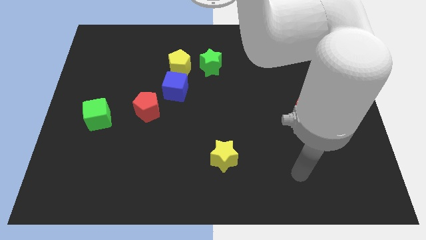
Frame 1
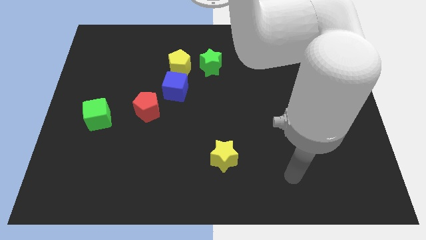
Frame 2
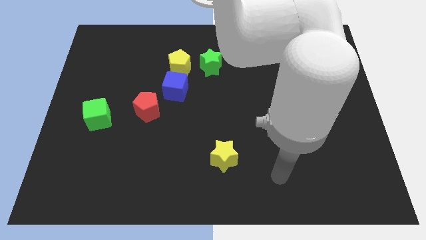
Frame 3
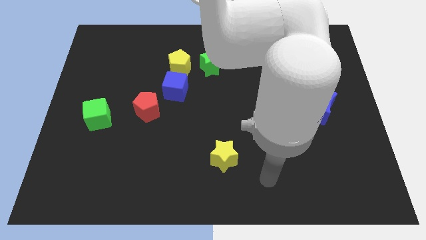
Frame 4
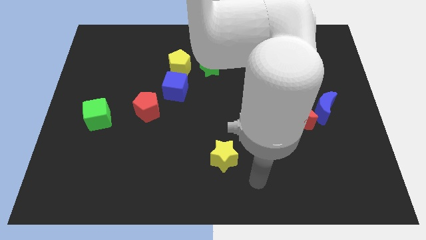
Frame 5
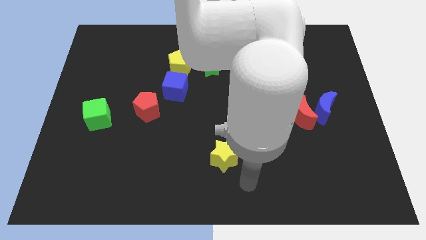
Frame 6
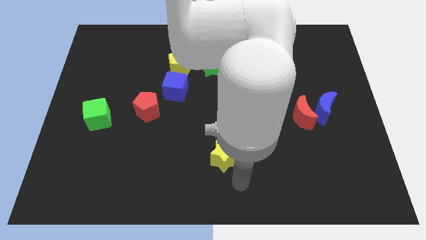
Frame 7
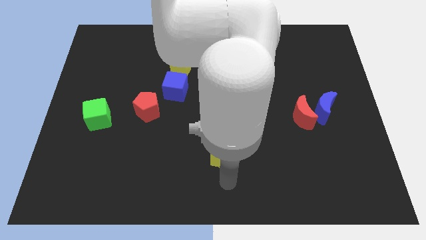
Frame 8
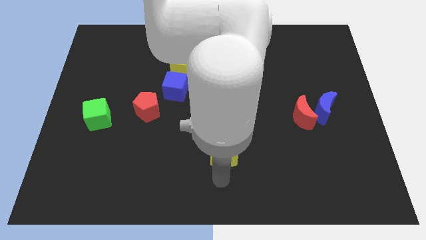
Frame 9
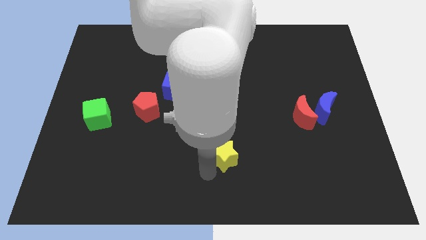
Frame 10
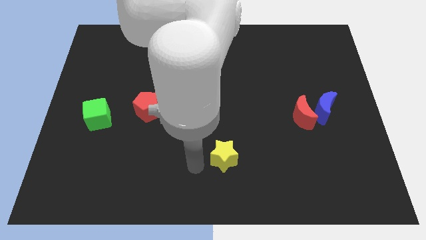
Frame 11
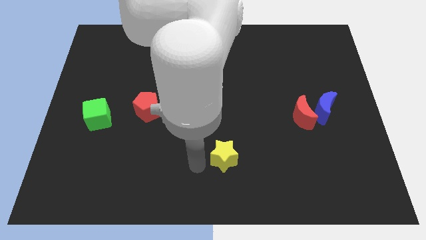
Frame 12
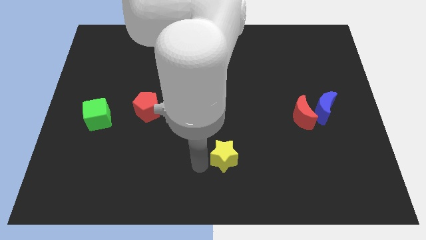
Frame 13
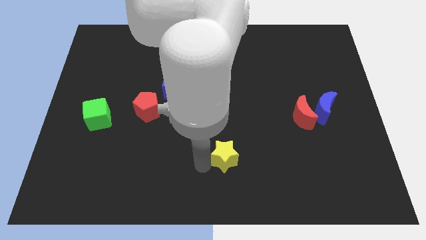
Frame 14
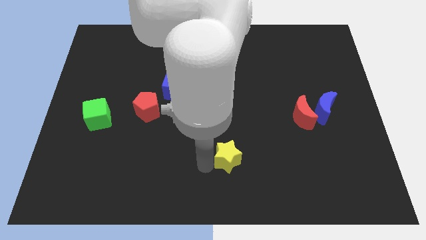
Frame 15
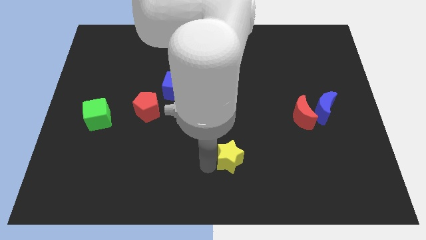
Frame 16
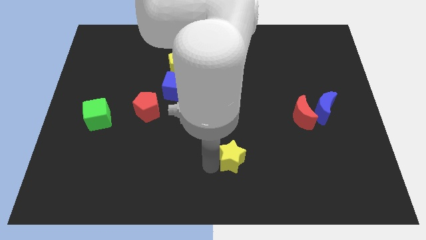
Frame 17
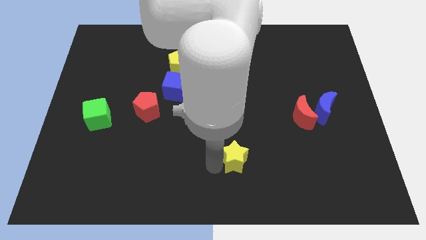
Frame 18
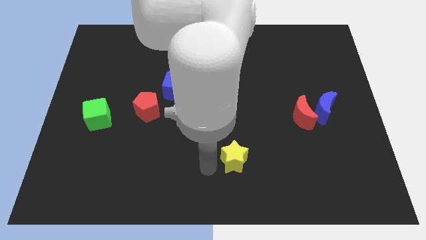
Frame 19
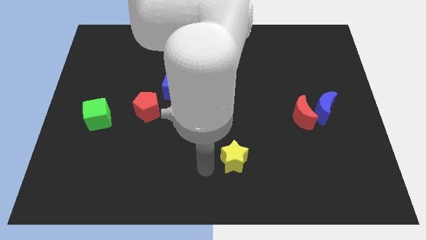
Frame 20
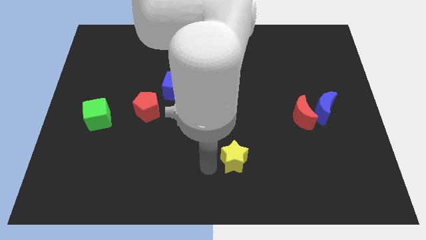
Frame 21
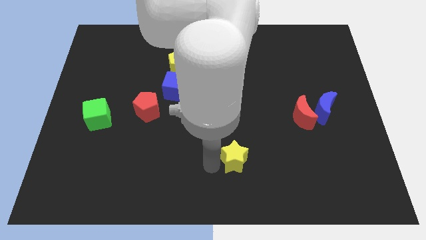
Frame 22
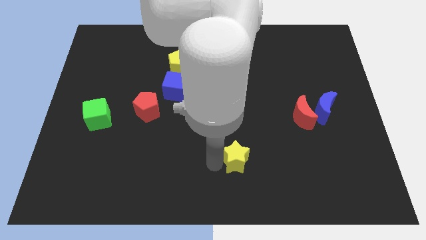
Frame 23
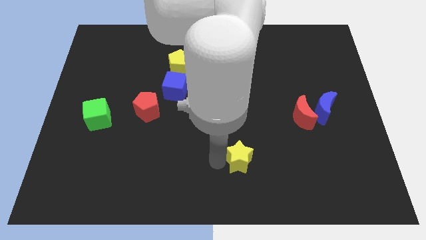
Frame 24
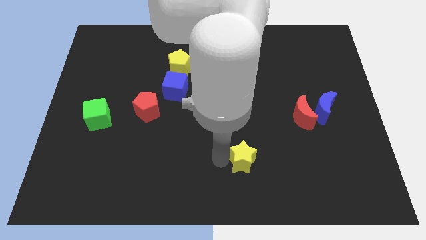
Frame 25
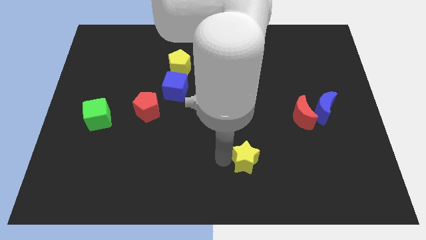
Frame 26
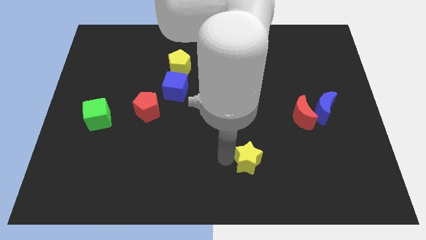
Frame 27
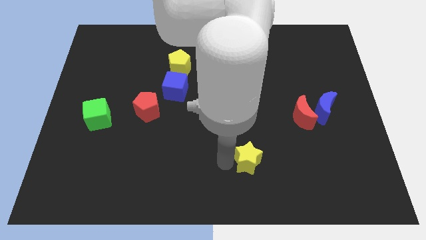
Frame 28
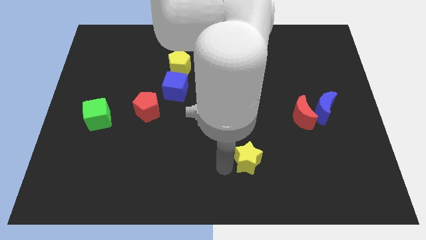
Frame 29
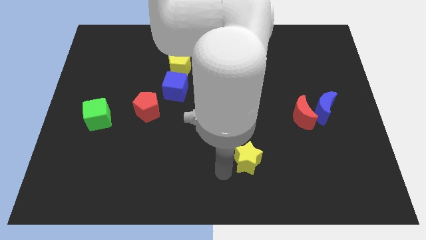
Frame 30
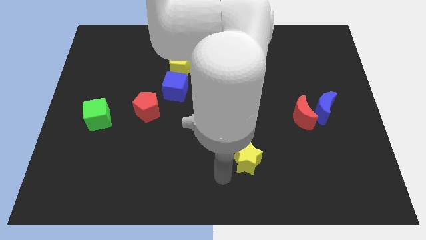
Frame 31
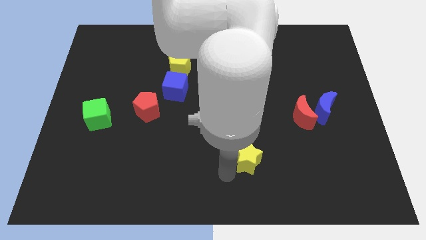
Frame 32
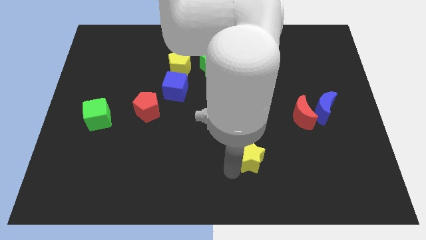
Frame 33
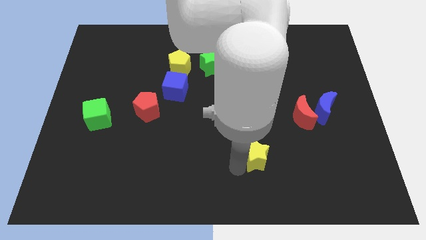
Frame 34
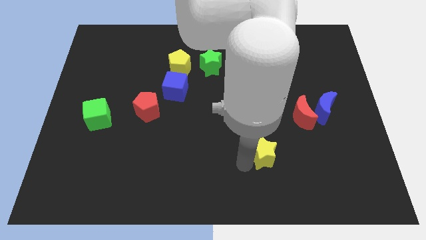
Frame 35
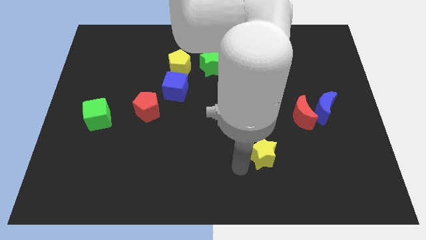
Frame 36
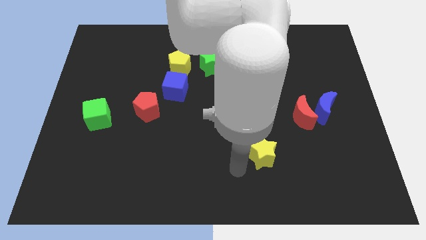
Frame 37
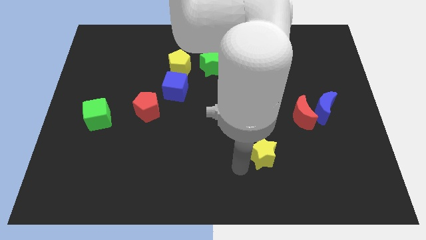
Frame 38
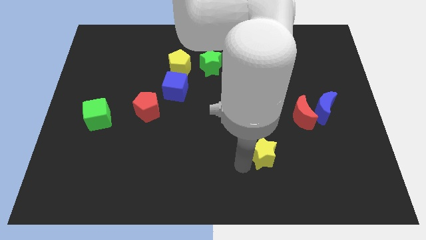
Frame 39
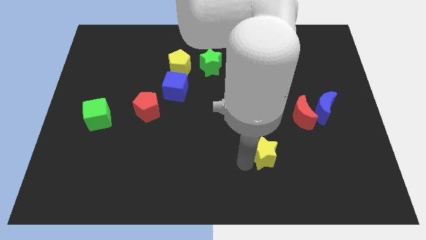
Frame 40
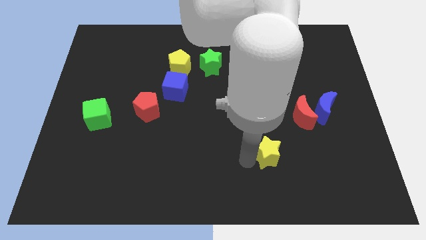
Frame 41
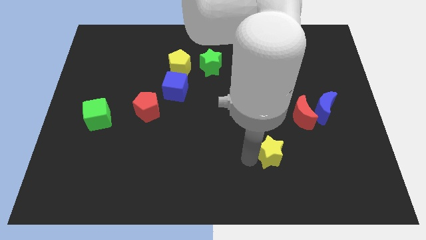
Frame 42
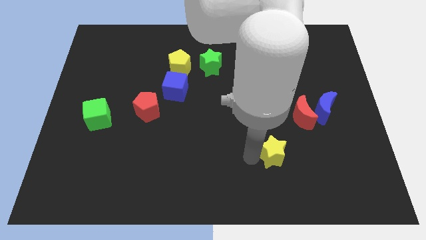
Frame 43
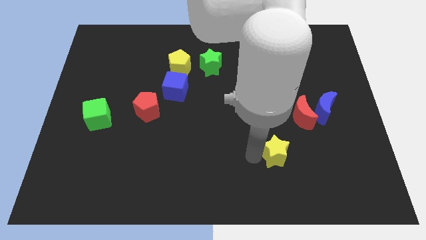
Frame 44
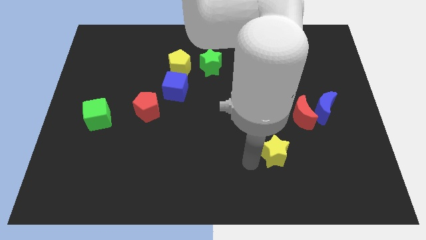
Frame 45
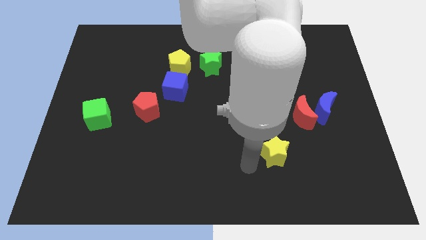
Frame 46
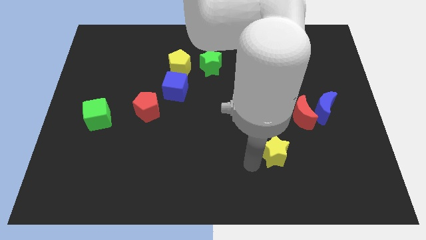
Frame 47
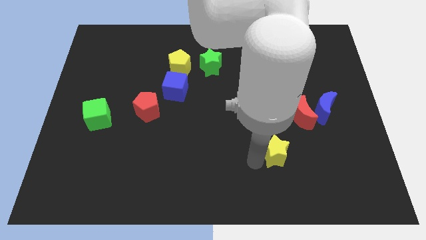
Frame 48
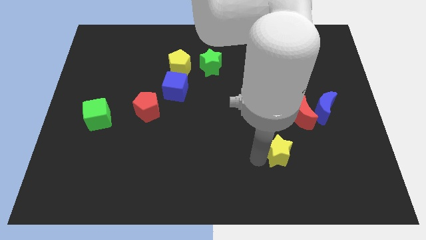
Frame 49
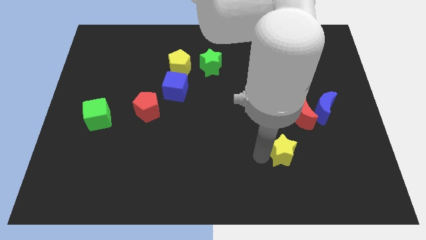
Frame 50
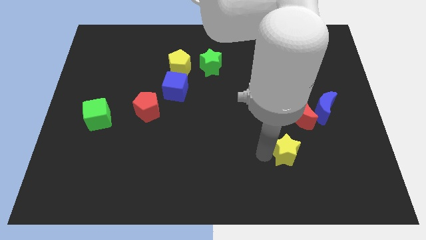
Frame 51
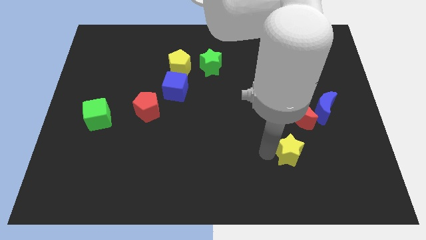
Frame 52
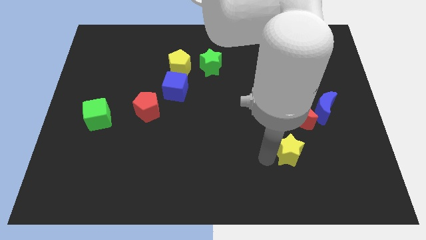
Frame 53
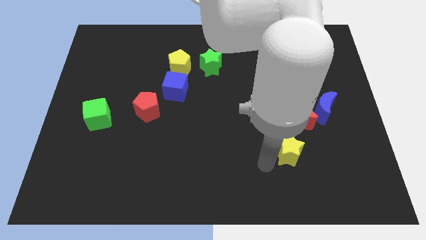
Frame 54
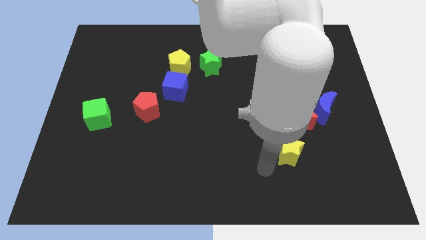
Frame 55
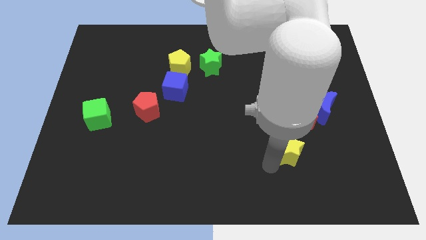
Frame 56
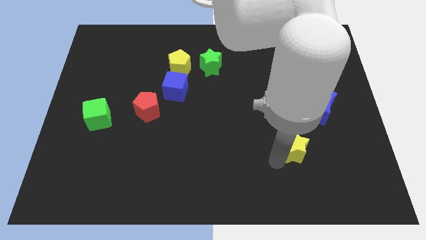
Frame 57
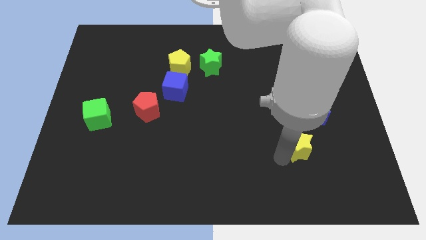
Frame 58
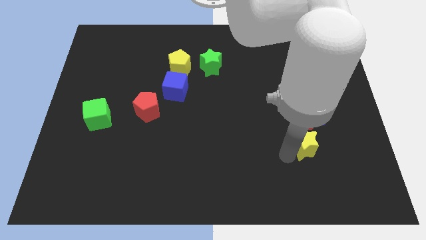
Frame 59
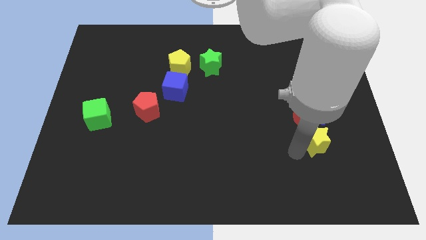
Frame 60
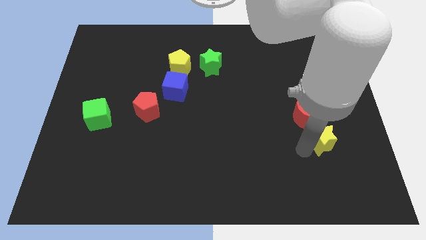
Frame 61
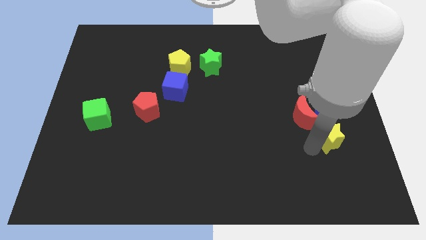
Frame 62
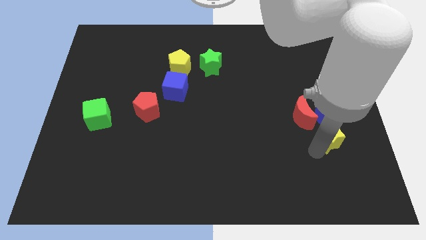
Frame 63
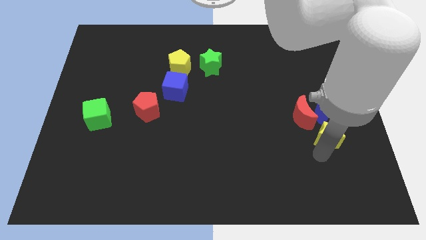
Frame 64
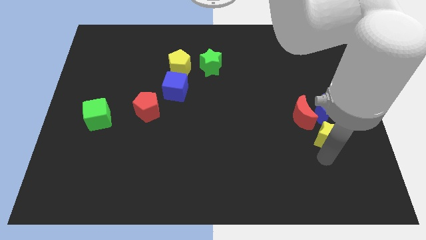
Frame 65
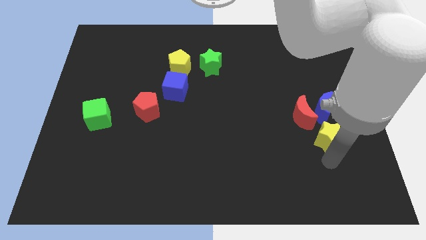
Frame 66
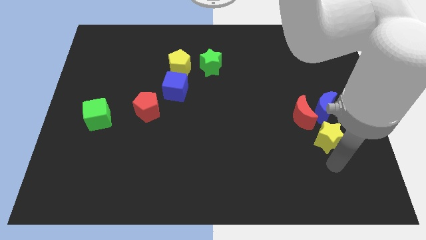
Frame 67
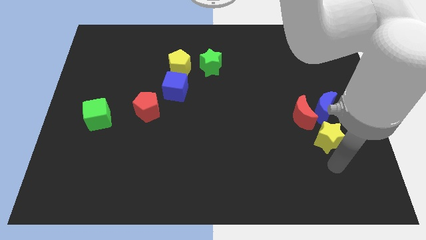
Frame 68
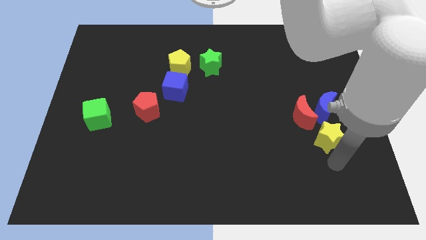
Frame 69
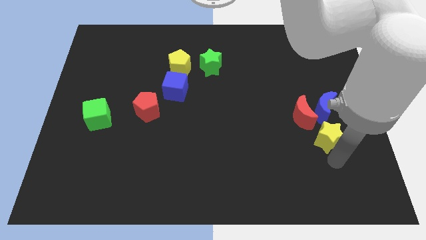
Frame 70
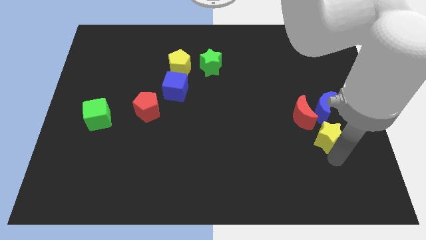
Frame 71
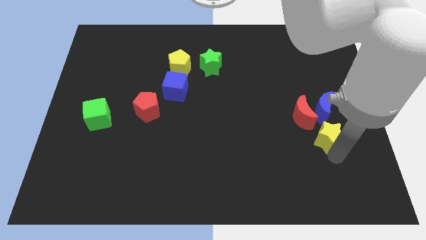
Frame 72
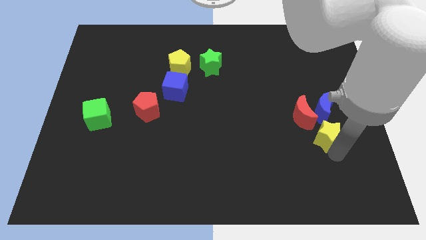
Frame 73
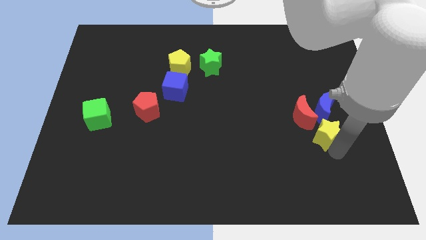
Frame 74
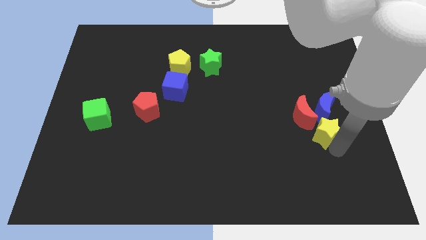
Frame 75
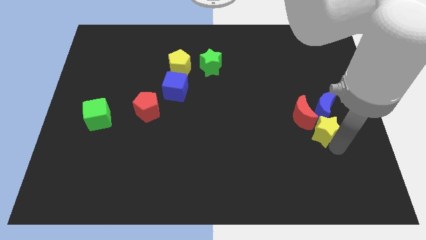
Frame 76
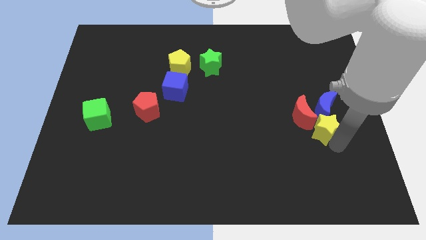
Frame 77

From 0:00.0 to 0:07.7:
slide the yellow star towards the blue moon
